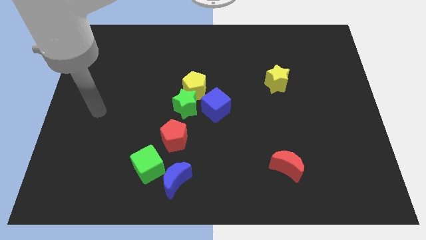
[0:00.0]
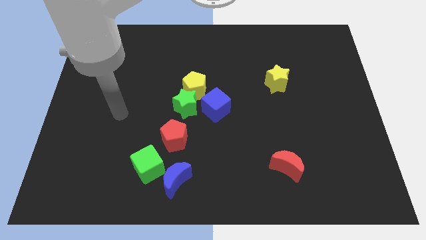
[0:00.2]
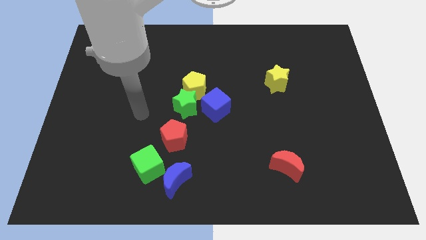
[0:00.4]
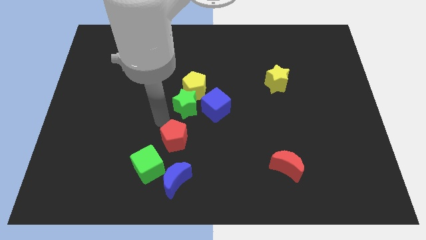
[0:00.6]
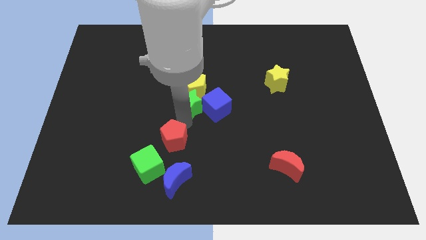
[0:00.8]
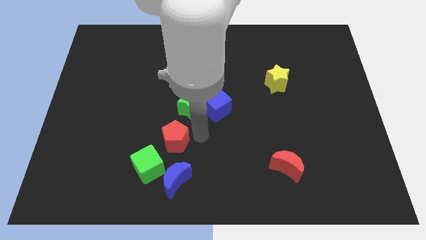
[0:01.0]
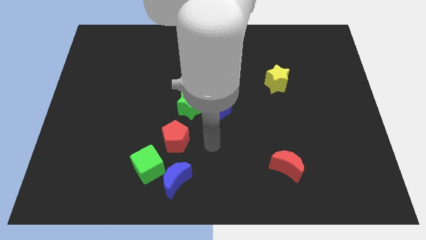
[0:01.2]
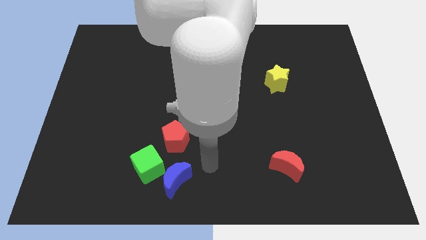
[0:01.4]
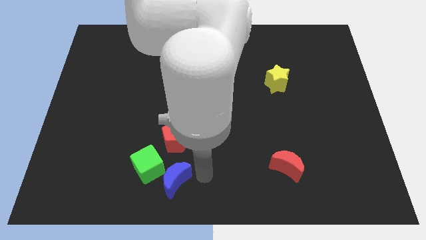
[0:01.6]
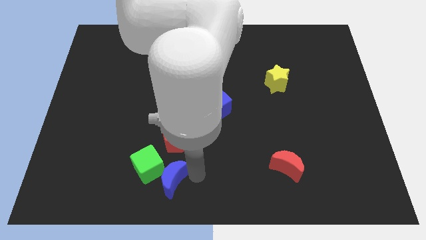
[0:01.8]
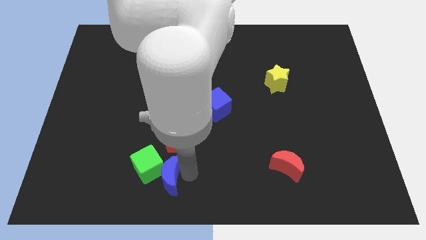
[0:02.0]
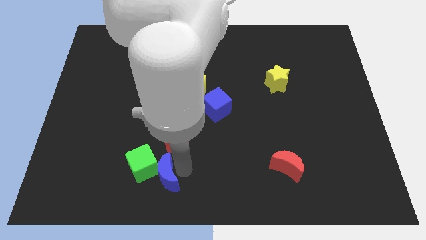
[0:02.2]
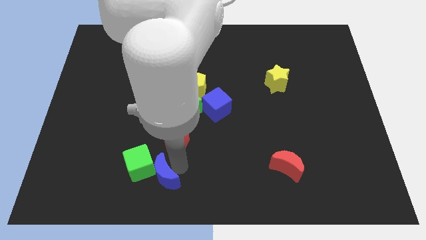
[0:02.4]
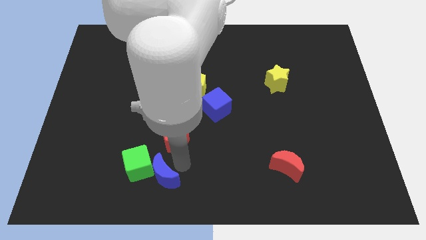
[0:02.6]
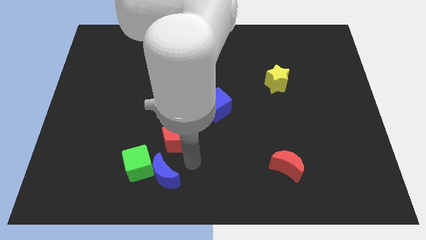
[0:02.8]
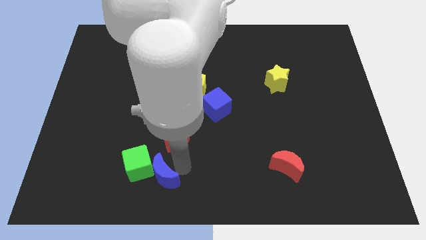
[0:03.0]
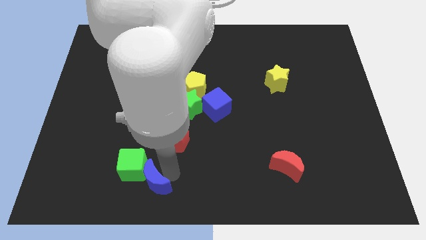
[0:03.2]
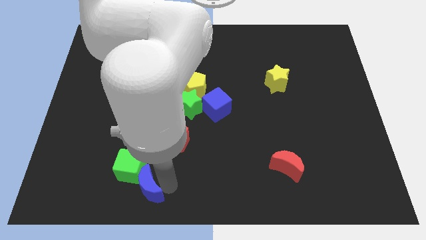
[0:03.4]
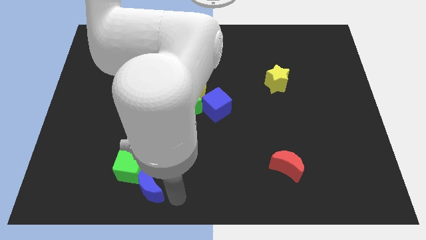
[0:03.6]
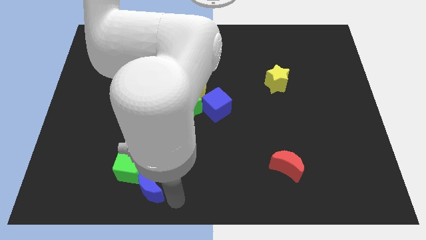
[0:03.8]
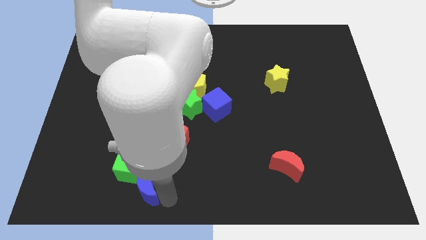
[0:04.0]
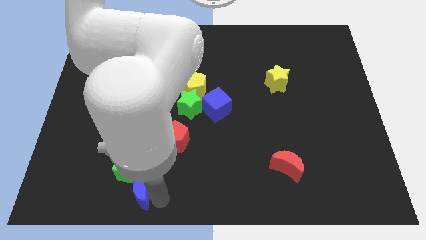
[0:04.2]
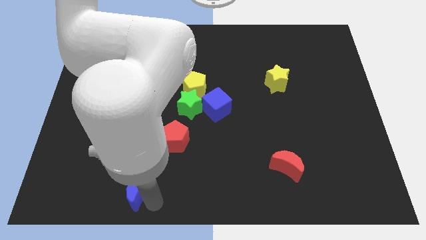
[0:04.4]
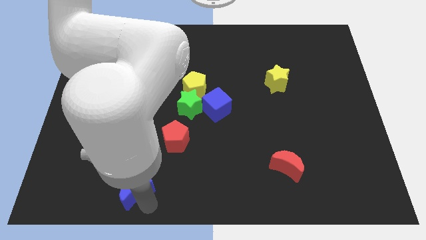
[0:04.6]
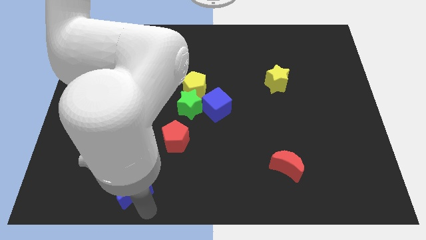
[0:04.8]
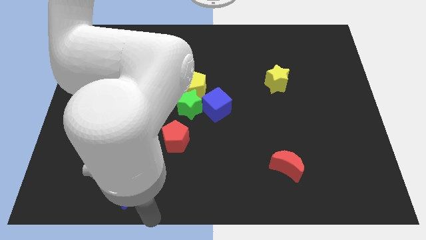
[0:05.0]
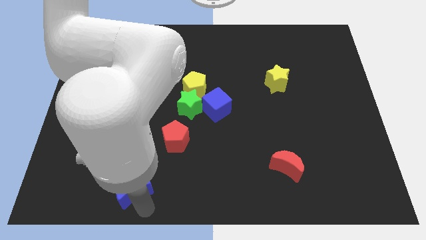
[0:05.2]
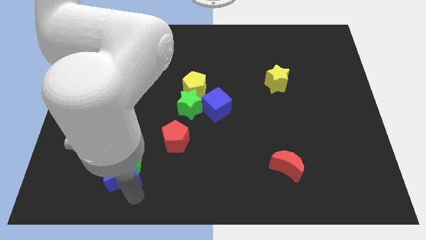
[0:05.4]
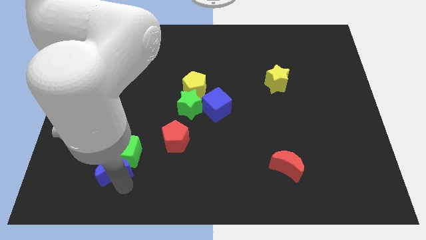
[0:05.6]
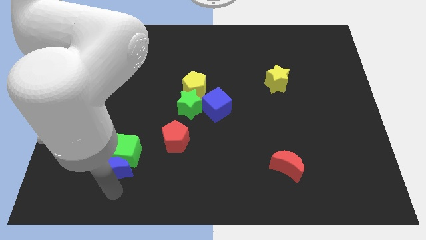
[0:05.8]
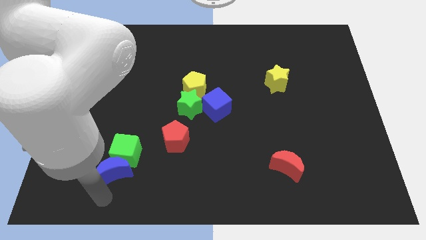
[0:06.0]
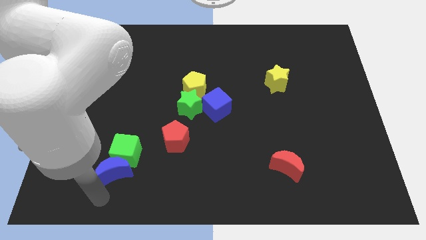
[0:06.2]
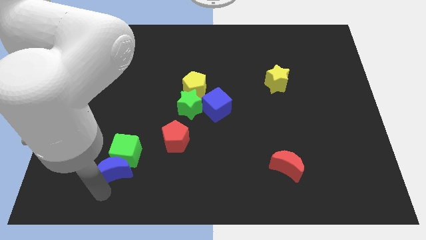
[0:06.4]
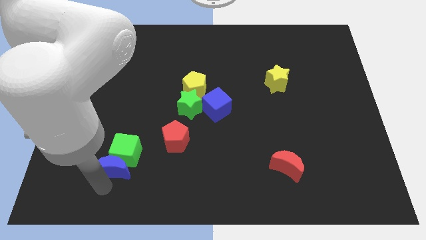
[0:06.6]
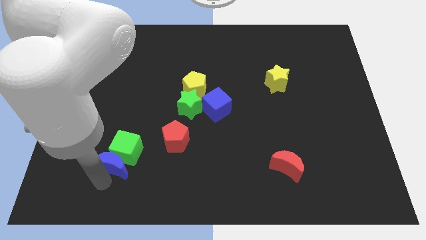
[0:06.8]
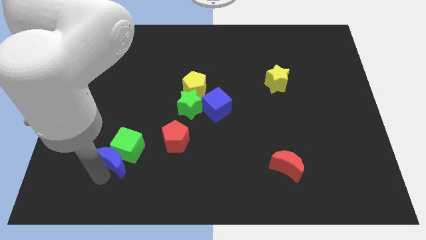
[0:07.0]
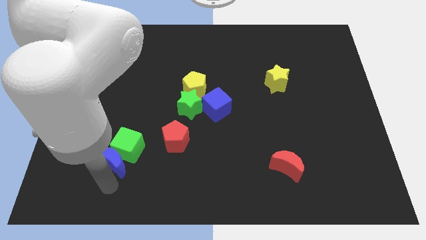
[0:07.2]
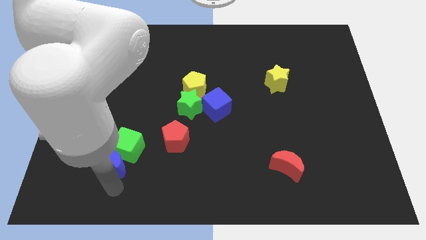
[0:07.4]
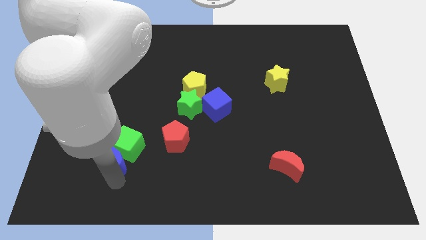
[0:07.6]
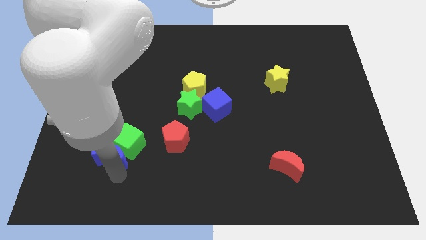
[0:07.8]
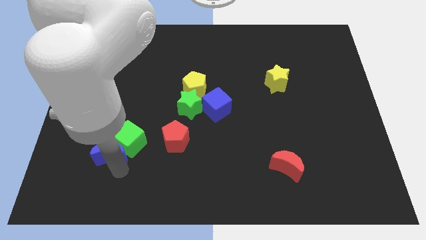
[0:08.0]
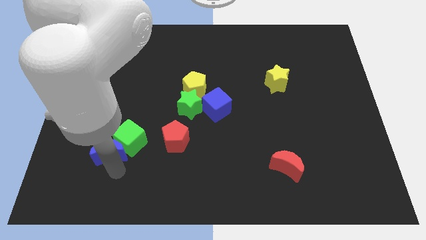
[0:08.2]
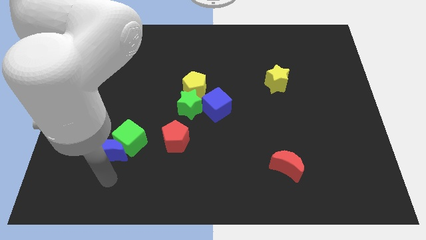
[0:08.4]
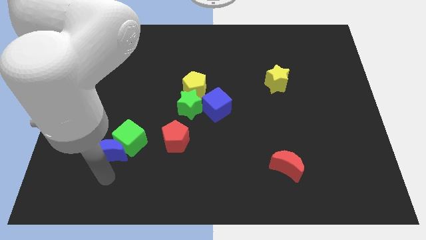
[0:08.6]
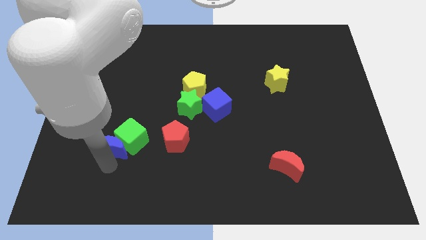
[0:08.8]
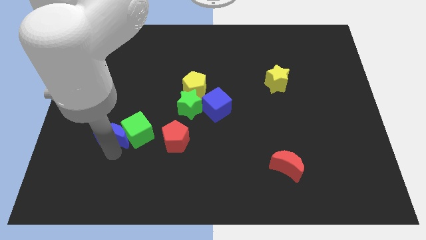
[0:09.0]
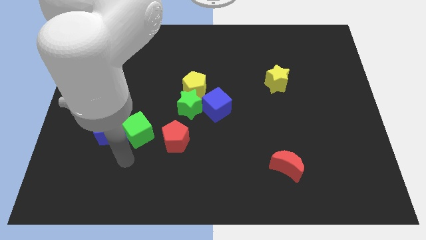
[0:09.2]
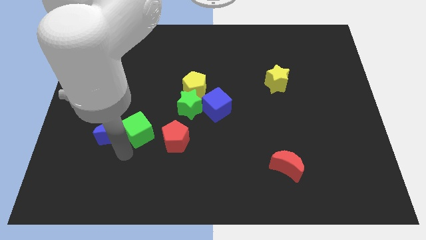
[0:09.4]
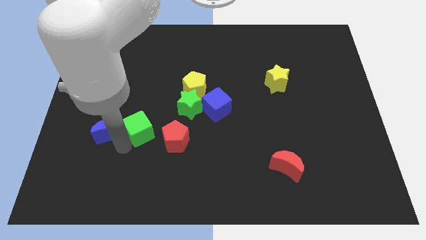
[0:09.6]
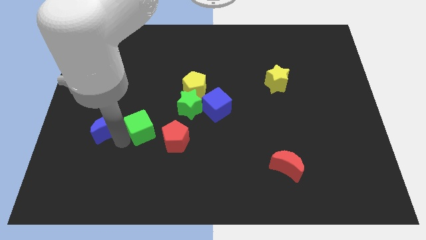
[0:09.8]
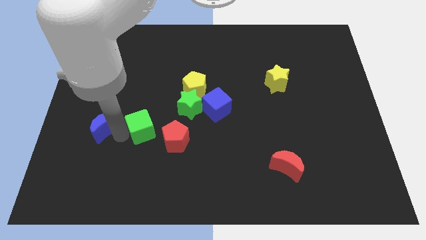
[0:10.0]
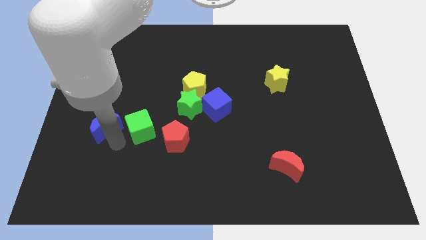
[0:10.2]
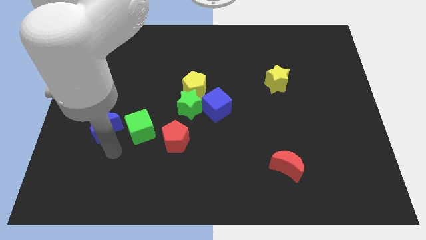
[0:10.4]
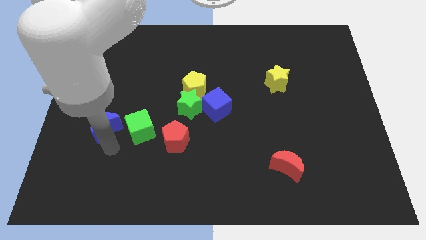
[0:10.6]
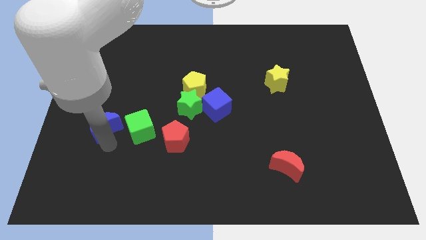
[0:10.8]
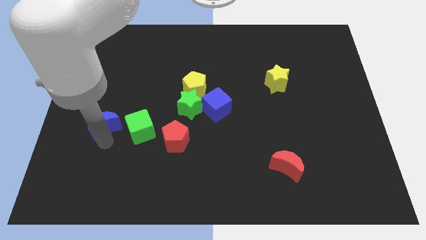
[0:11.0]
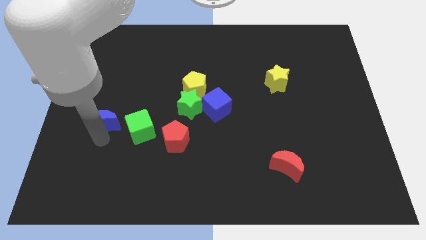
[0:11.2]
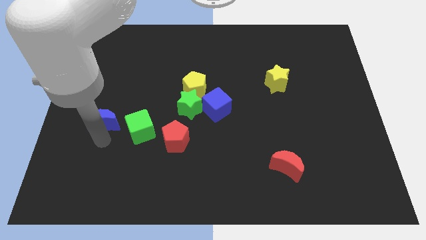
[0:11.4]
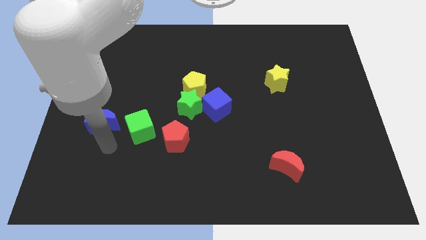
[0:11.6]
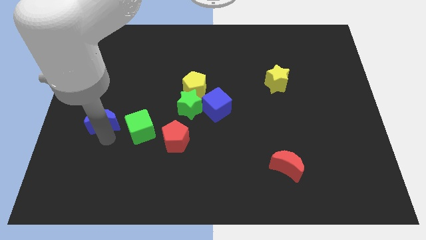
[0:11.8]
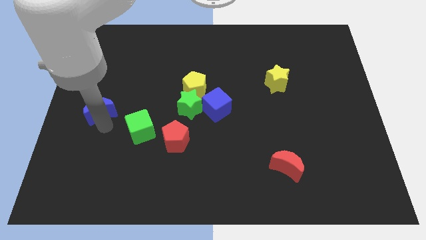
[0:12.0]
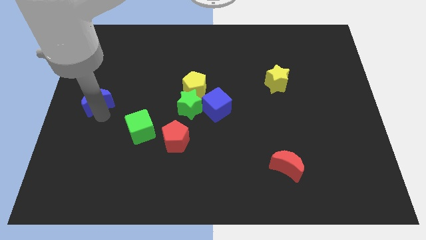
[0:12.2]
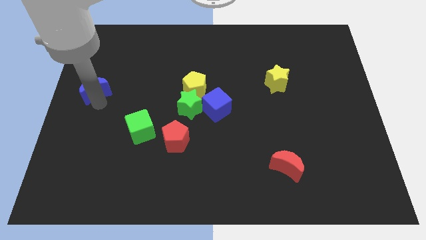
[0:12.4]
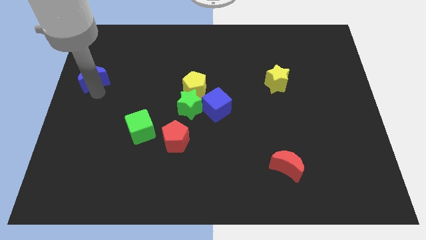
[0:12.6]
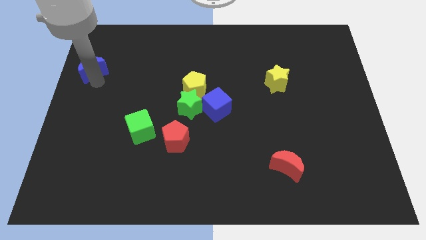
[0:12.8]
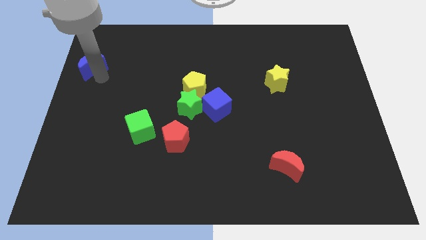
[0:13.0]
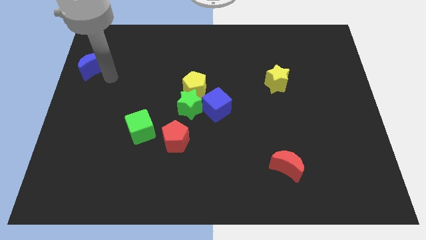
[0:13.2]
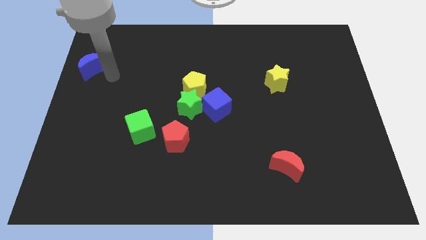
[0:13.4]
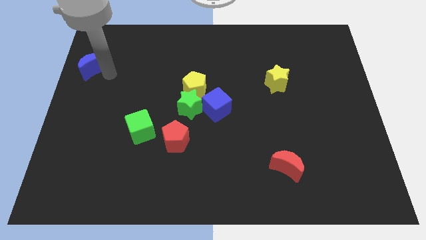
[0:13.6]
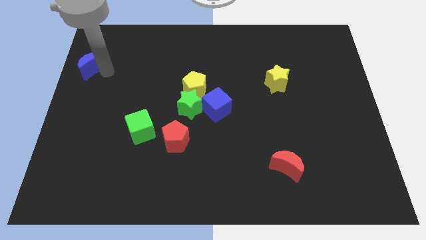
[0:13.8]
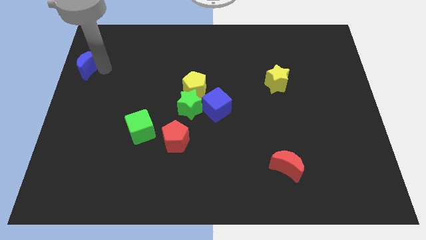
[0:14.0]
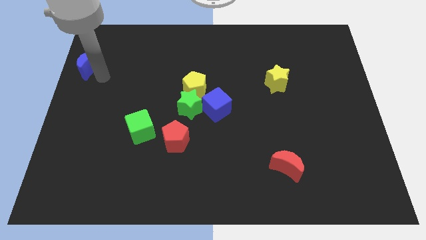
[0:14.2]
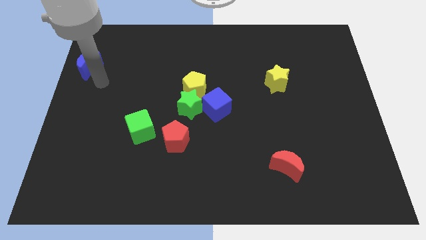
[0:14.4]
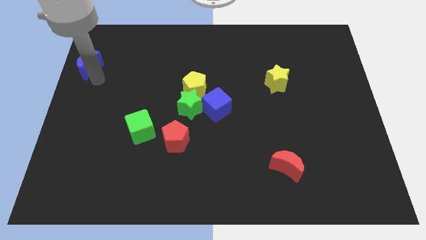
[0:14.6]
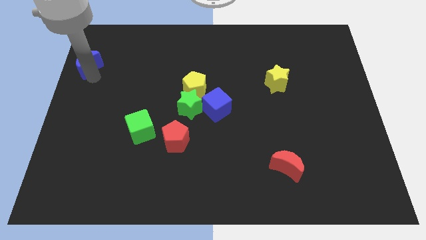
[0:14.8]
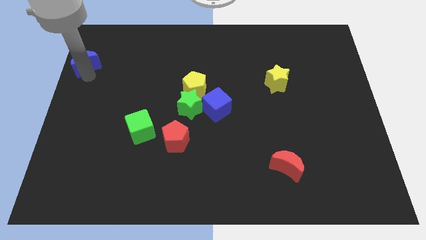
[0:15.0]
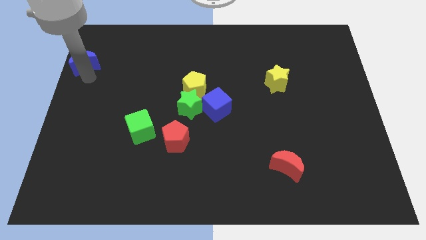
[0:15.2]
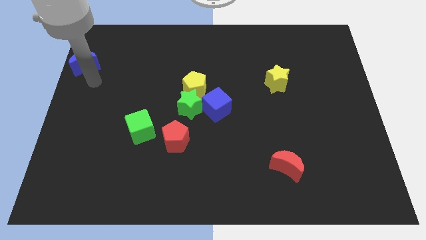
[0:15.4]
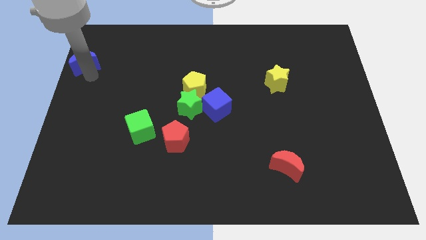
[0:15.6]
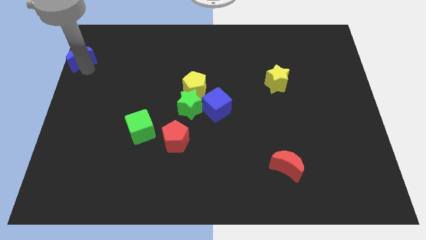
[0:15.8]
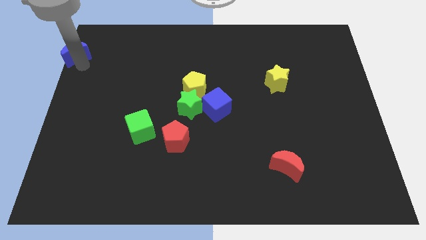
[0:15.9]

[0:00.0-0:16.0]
move the blue moon to the top left
